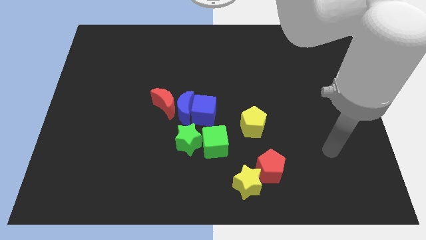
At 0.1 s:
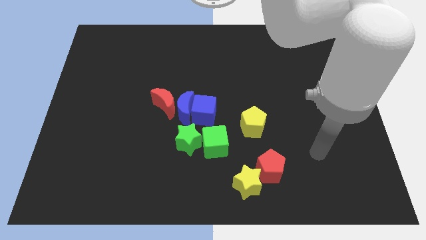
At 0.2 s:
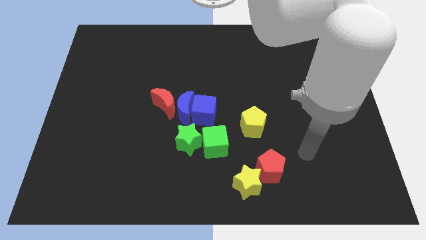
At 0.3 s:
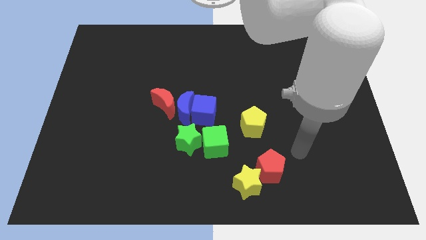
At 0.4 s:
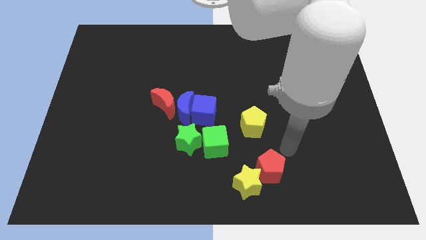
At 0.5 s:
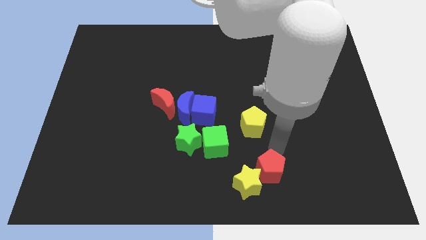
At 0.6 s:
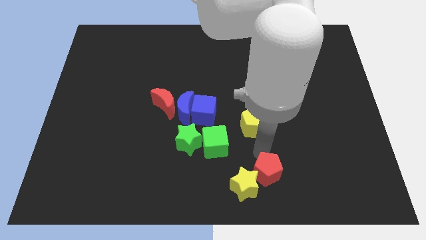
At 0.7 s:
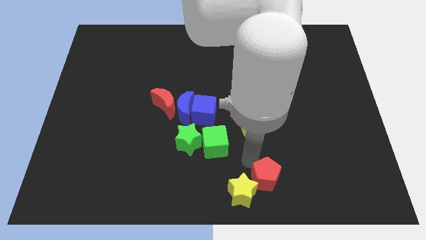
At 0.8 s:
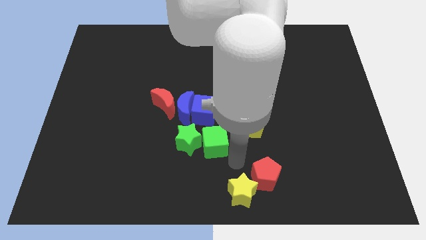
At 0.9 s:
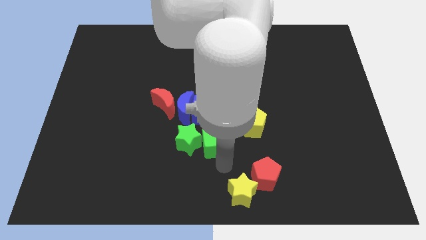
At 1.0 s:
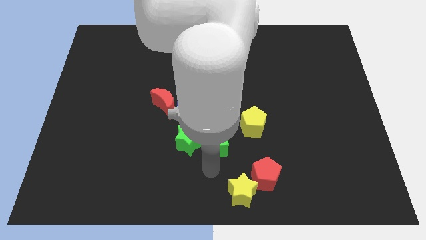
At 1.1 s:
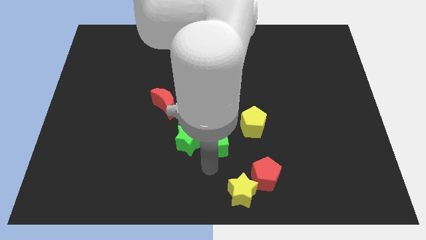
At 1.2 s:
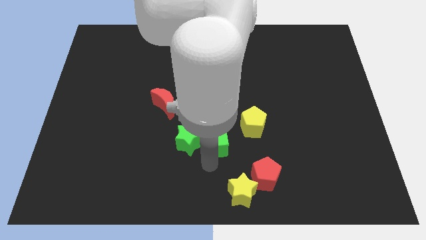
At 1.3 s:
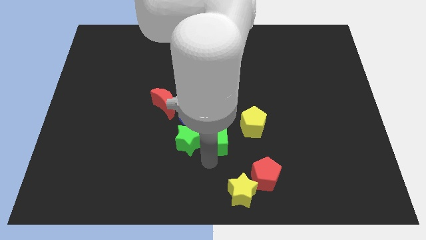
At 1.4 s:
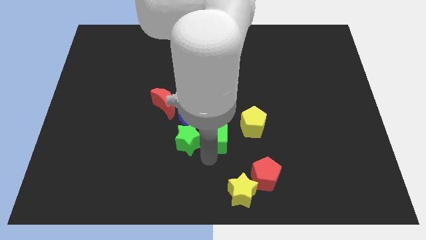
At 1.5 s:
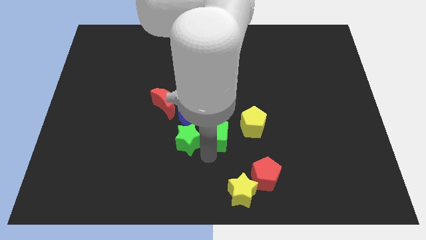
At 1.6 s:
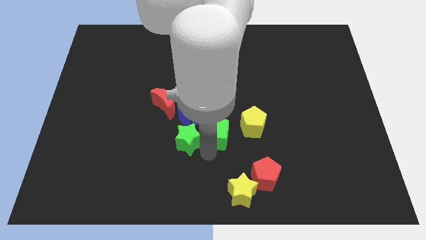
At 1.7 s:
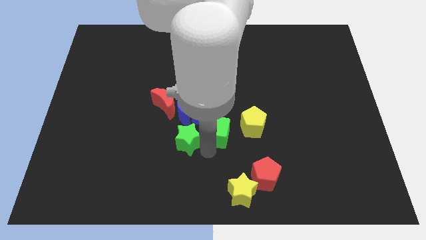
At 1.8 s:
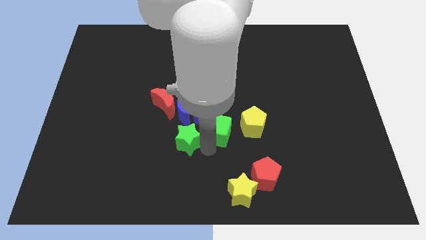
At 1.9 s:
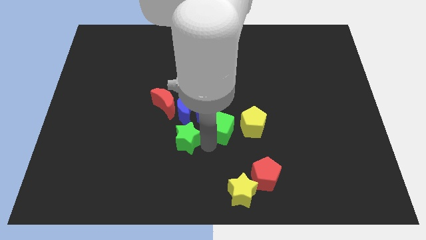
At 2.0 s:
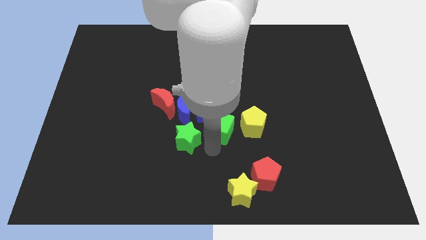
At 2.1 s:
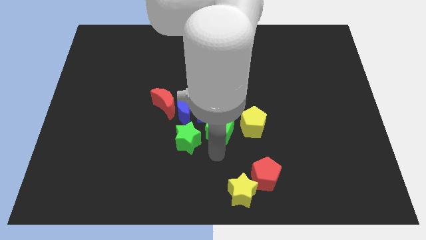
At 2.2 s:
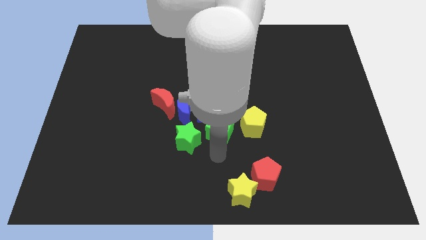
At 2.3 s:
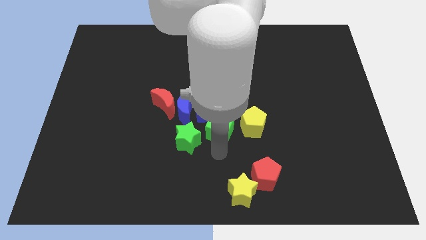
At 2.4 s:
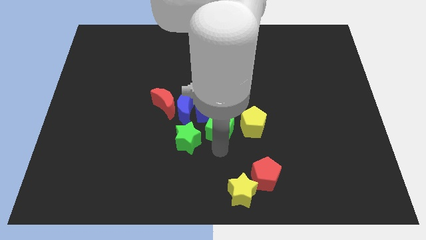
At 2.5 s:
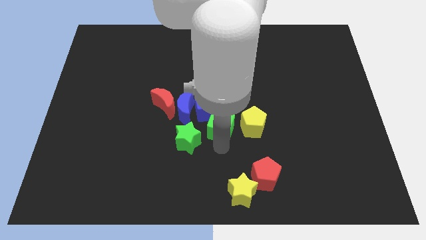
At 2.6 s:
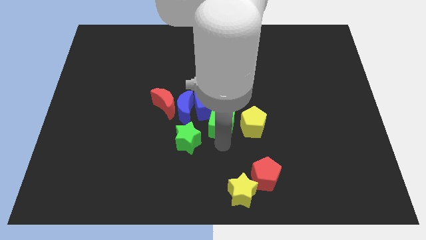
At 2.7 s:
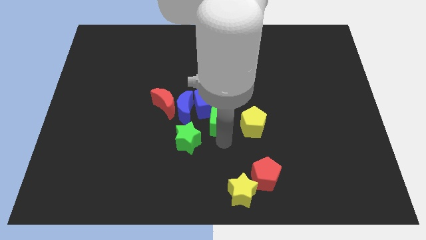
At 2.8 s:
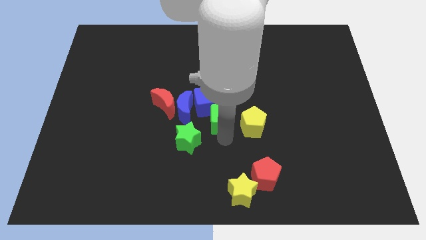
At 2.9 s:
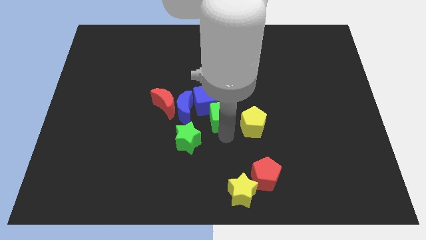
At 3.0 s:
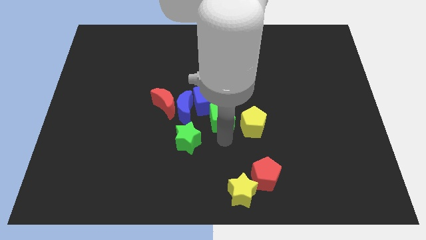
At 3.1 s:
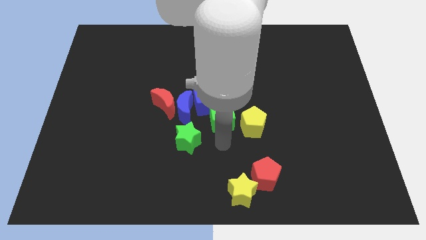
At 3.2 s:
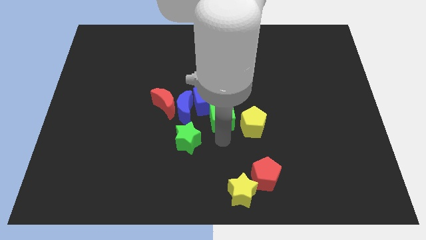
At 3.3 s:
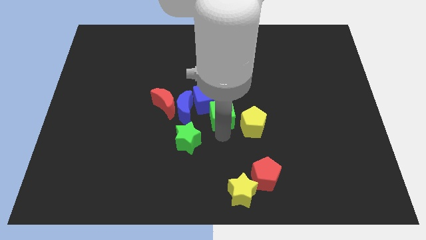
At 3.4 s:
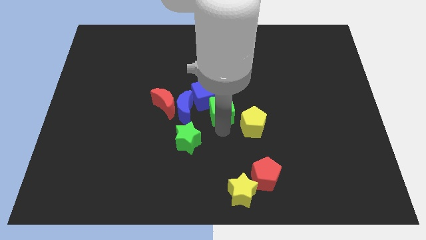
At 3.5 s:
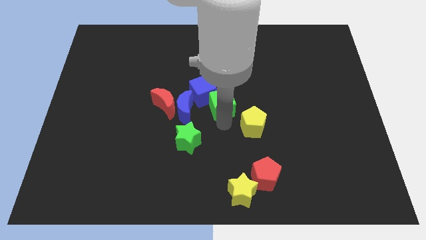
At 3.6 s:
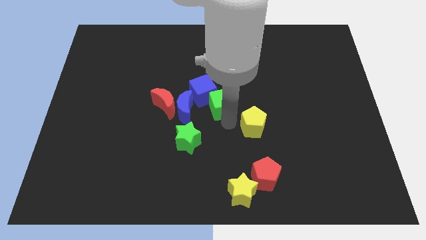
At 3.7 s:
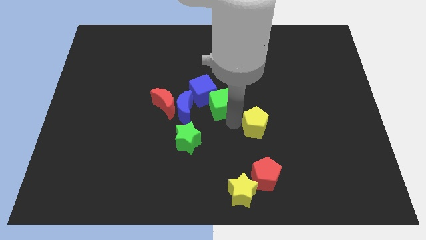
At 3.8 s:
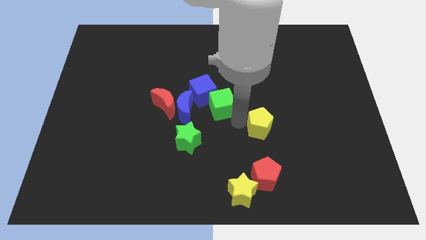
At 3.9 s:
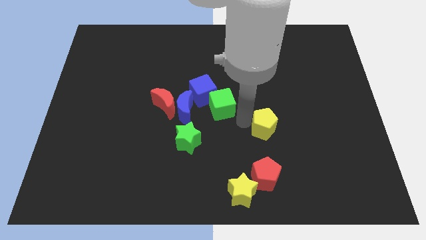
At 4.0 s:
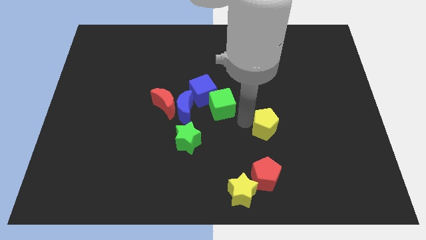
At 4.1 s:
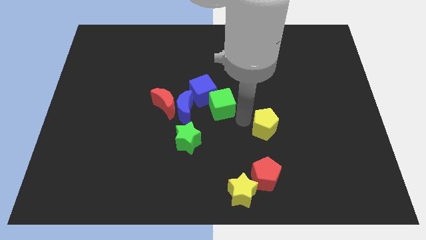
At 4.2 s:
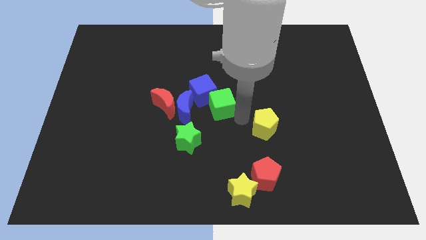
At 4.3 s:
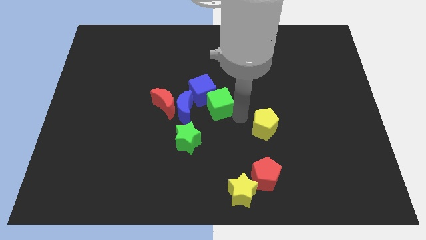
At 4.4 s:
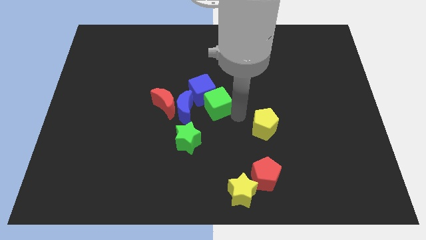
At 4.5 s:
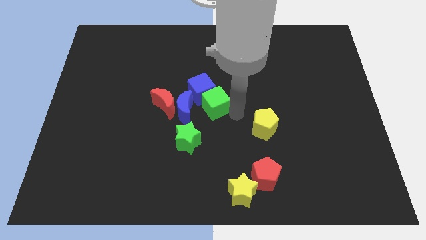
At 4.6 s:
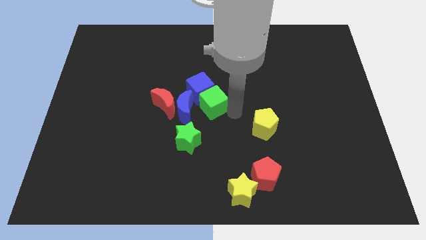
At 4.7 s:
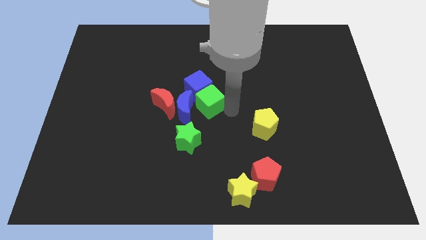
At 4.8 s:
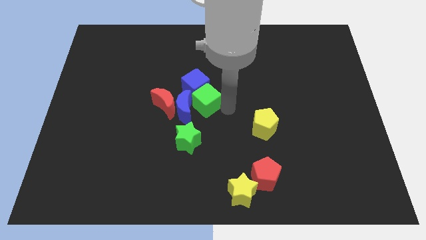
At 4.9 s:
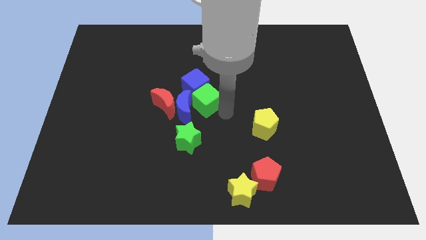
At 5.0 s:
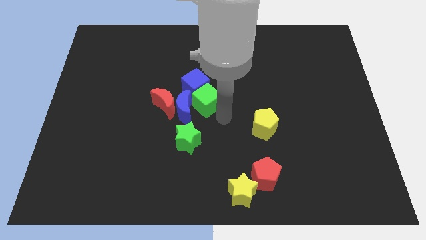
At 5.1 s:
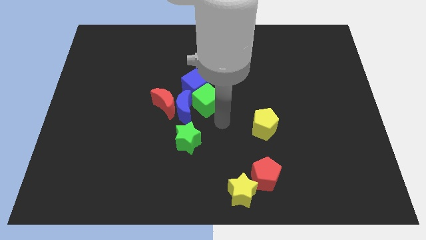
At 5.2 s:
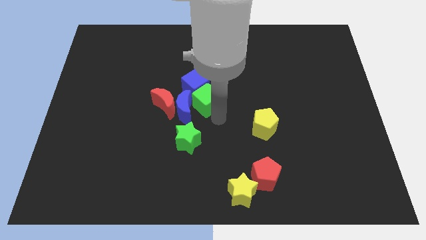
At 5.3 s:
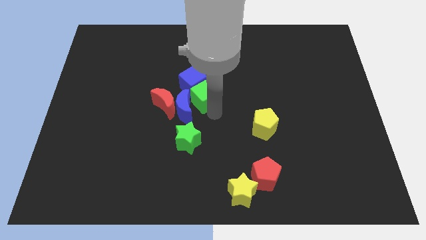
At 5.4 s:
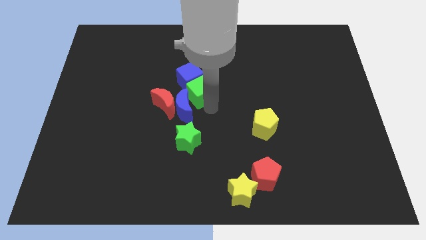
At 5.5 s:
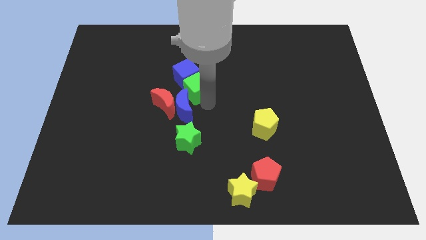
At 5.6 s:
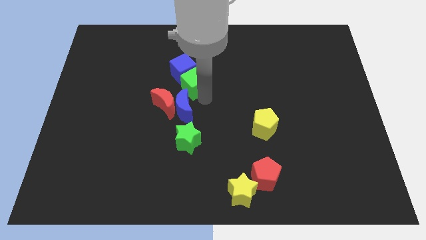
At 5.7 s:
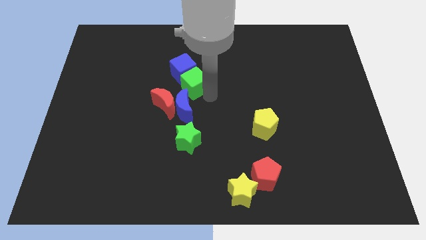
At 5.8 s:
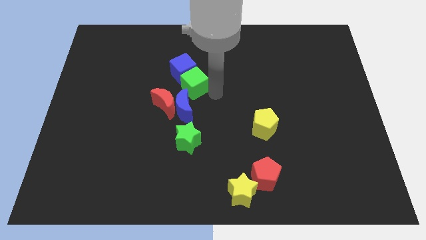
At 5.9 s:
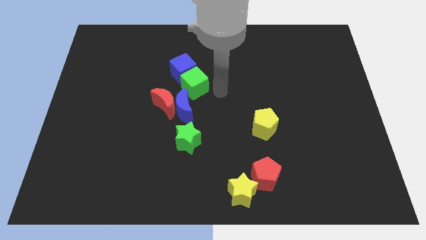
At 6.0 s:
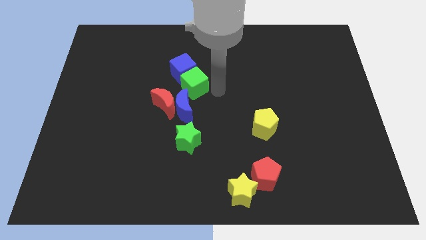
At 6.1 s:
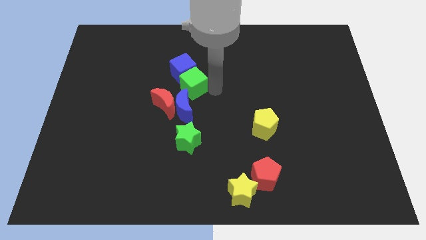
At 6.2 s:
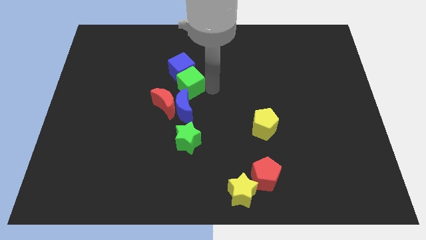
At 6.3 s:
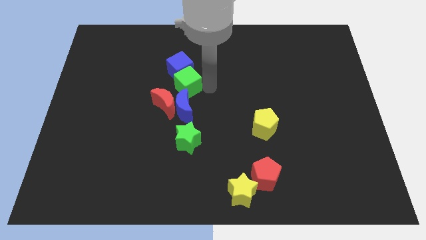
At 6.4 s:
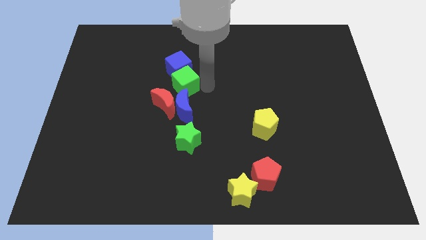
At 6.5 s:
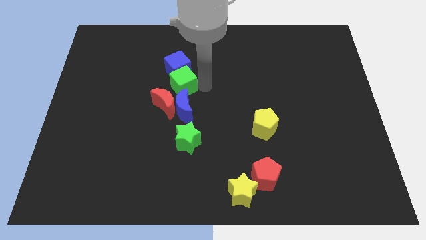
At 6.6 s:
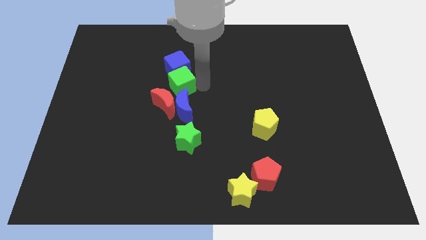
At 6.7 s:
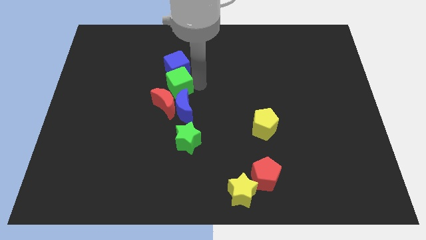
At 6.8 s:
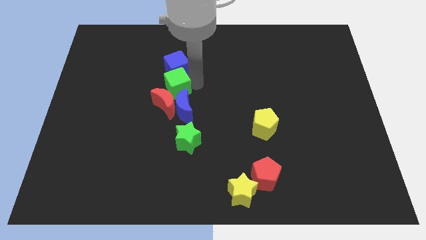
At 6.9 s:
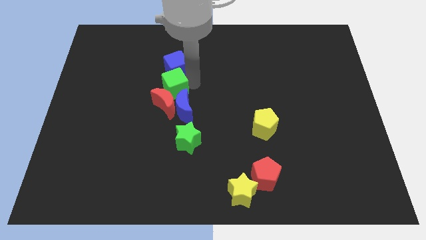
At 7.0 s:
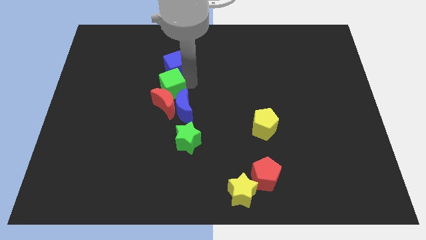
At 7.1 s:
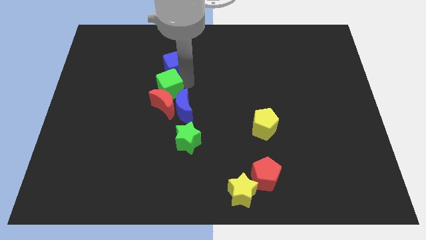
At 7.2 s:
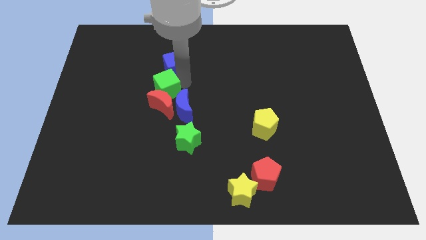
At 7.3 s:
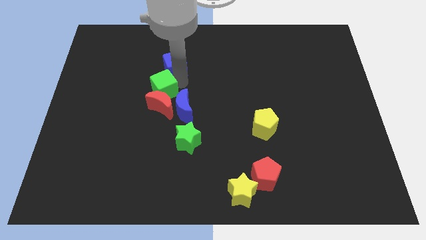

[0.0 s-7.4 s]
move the green cube upwards and left

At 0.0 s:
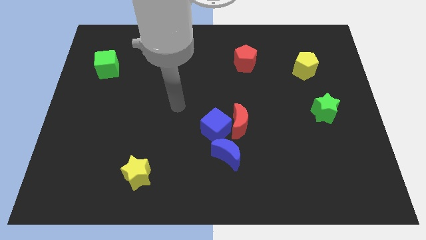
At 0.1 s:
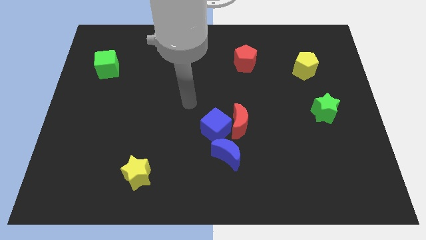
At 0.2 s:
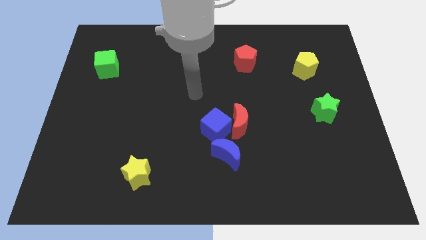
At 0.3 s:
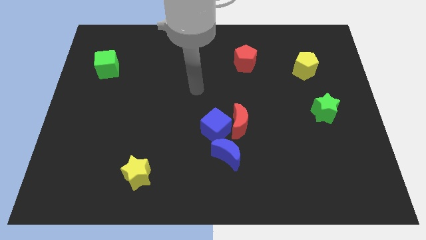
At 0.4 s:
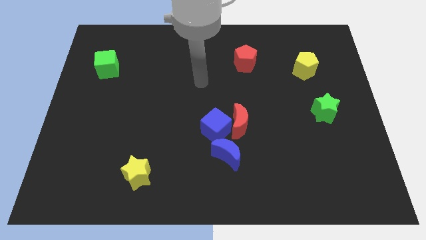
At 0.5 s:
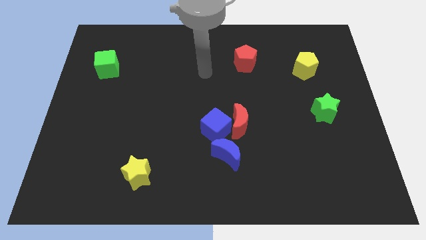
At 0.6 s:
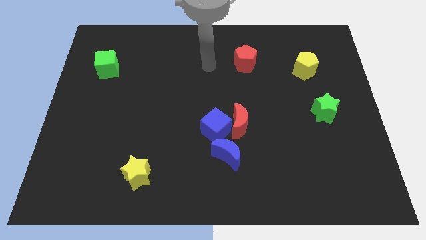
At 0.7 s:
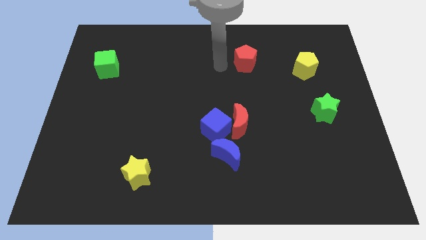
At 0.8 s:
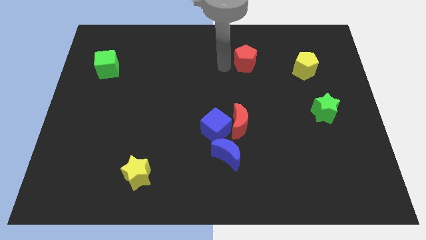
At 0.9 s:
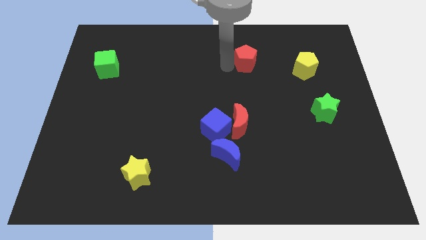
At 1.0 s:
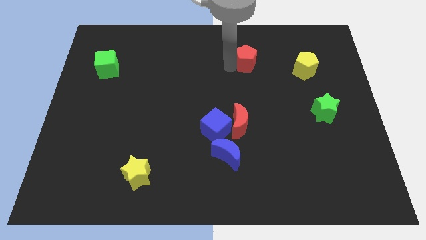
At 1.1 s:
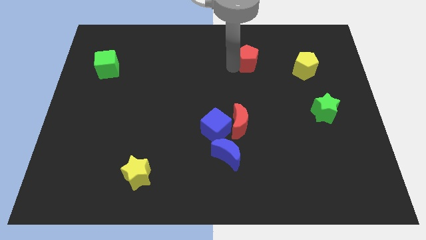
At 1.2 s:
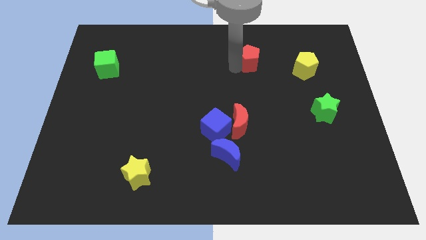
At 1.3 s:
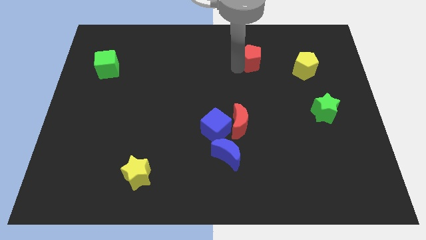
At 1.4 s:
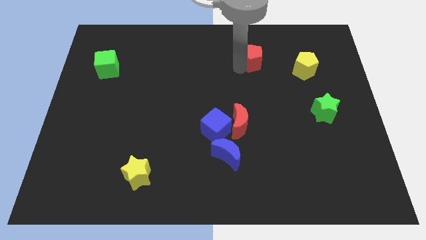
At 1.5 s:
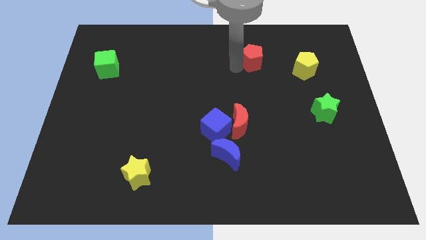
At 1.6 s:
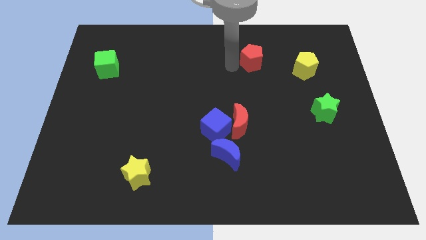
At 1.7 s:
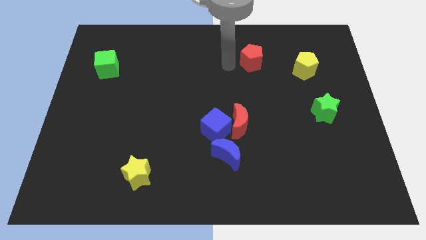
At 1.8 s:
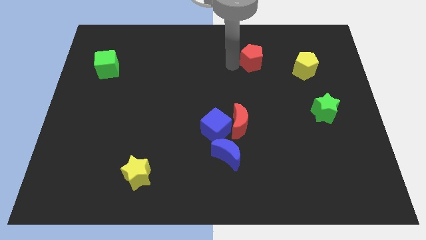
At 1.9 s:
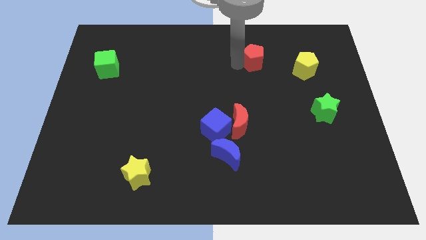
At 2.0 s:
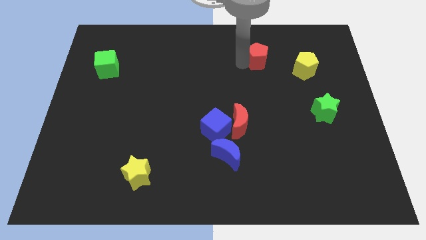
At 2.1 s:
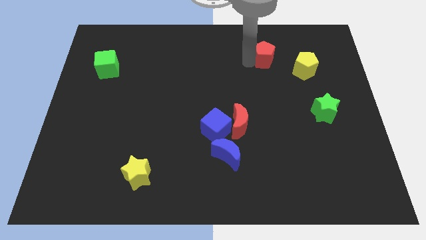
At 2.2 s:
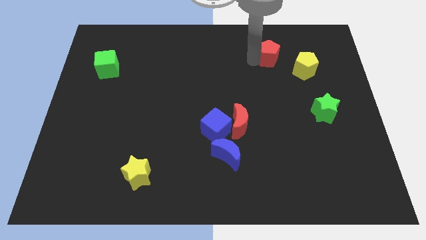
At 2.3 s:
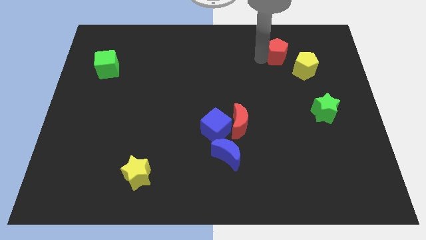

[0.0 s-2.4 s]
slide the red pentagon right a little
